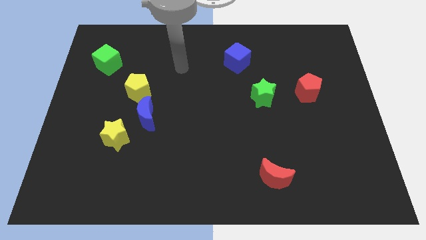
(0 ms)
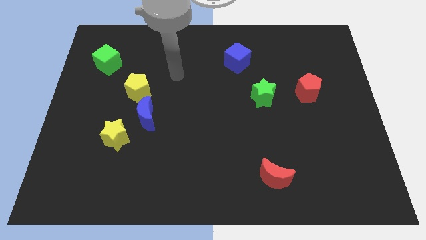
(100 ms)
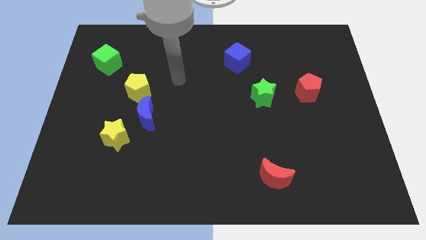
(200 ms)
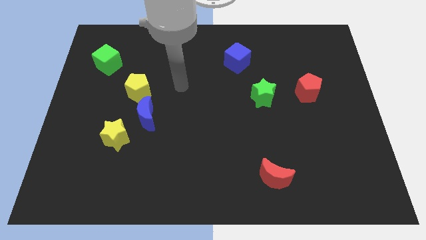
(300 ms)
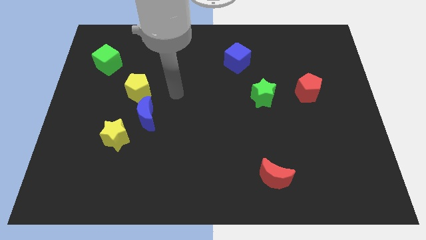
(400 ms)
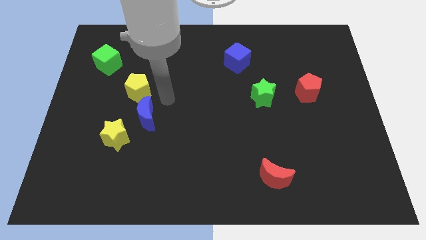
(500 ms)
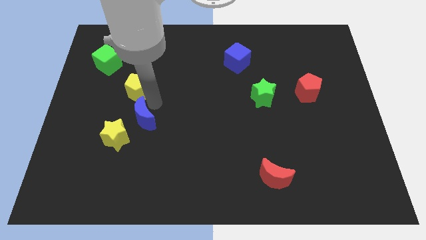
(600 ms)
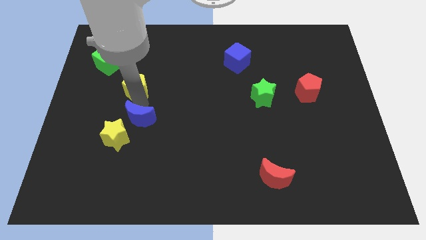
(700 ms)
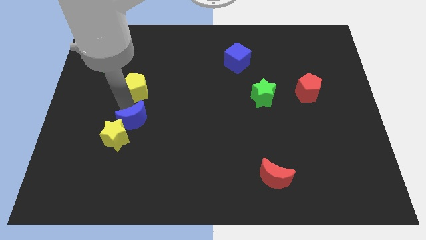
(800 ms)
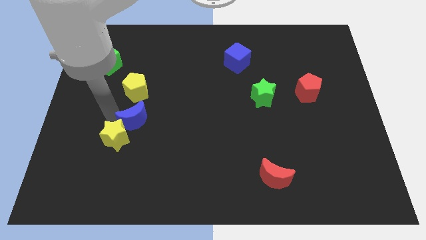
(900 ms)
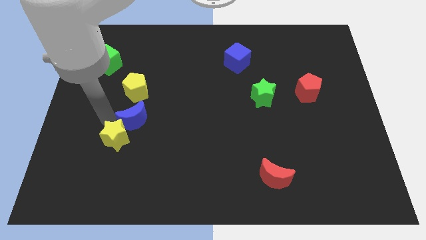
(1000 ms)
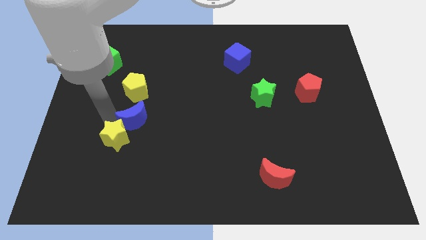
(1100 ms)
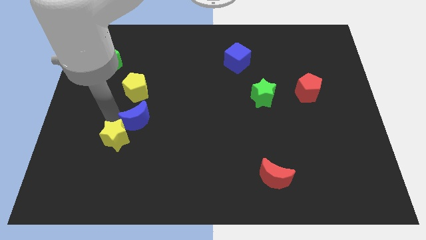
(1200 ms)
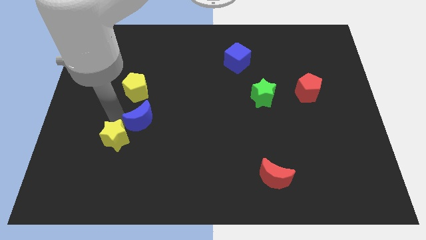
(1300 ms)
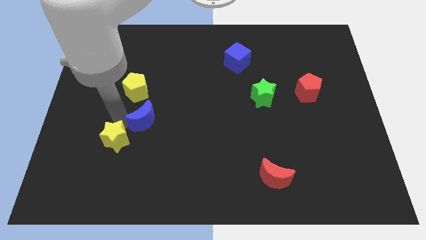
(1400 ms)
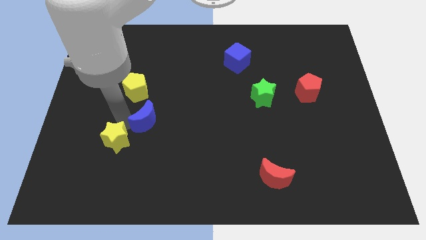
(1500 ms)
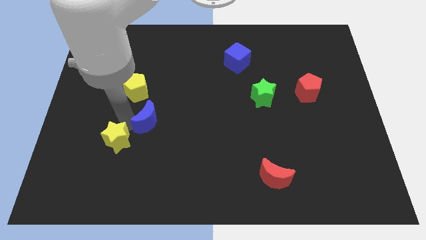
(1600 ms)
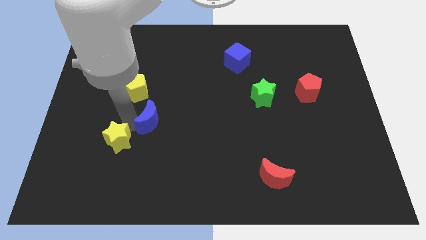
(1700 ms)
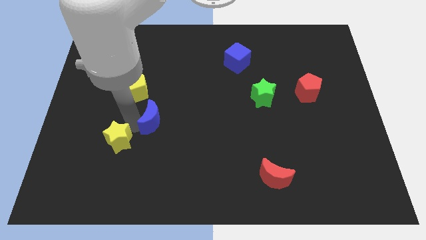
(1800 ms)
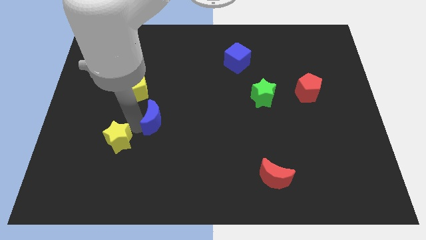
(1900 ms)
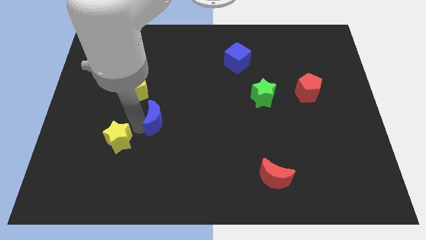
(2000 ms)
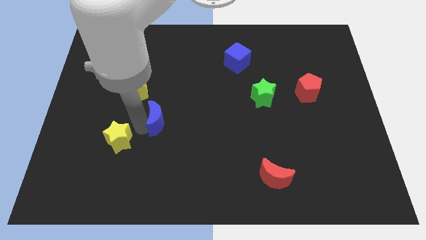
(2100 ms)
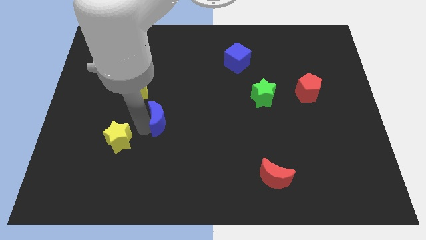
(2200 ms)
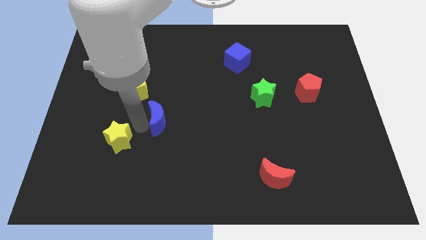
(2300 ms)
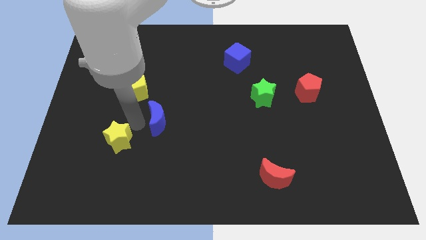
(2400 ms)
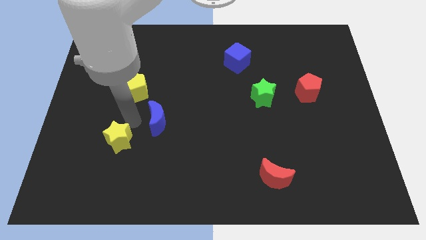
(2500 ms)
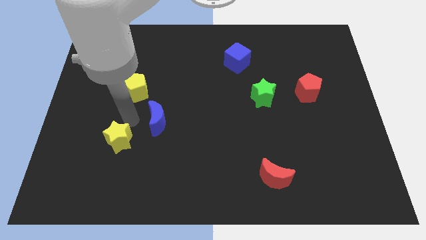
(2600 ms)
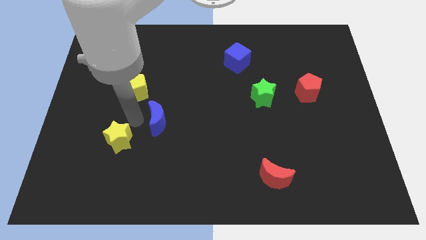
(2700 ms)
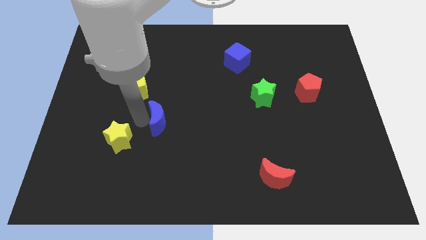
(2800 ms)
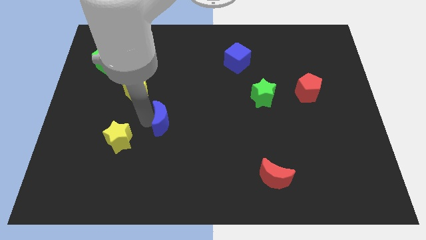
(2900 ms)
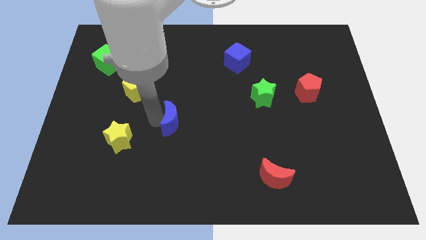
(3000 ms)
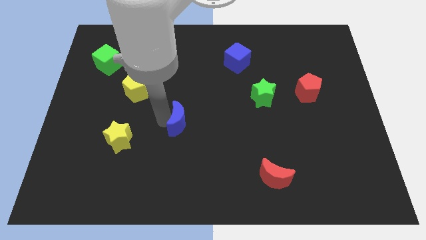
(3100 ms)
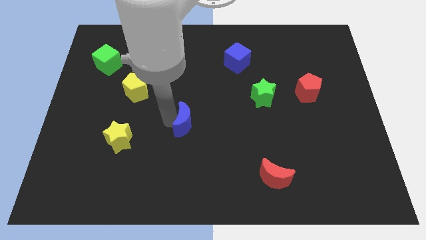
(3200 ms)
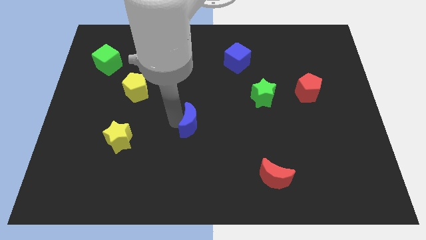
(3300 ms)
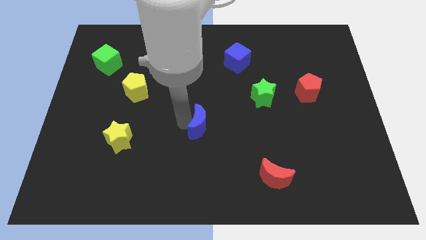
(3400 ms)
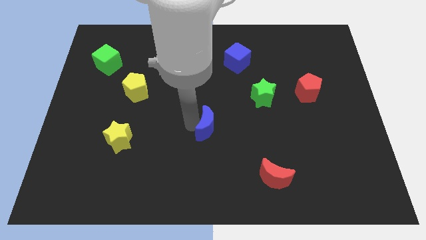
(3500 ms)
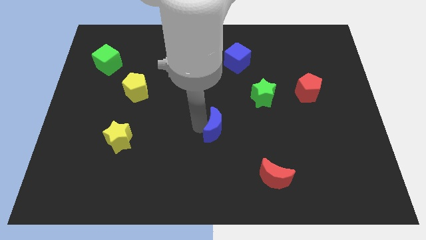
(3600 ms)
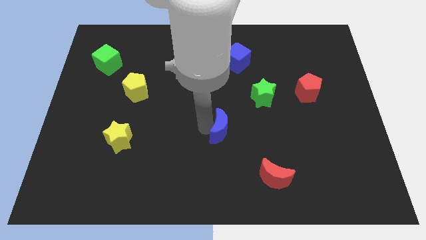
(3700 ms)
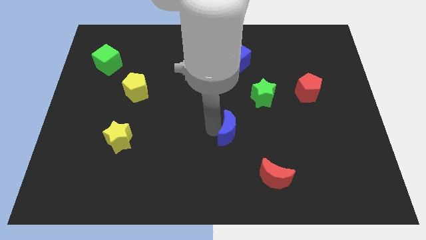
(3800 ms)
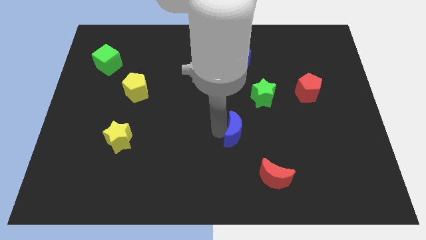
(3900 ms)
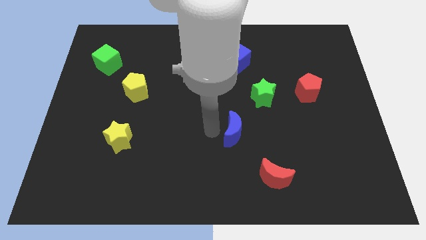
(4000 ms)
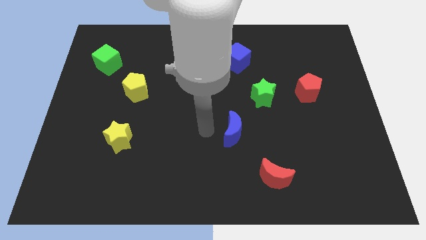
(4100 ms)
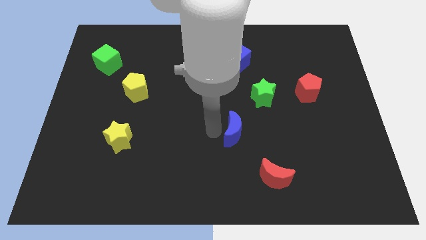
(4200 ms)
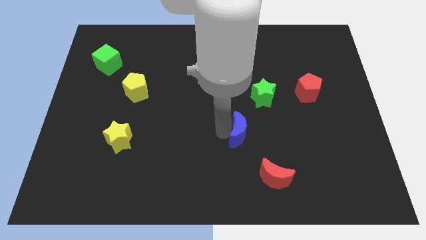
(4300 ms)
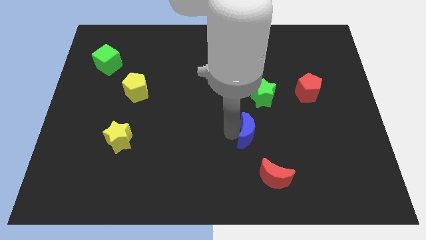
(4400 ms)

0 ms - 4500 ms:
put the blue moon above the red moon

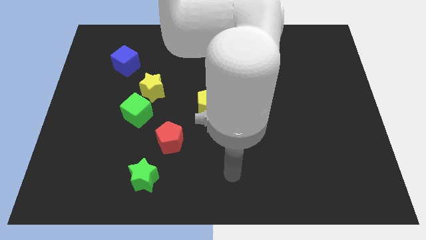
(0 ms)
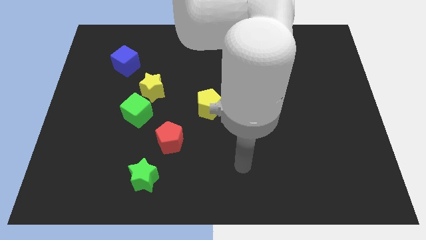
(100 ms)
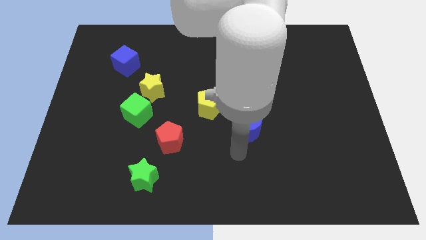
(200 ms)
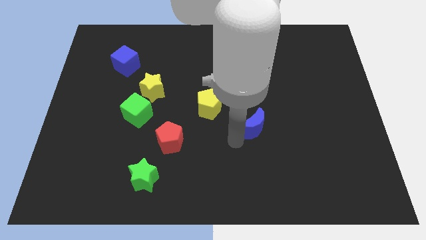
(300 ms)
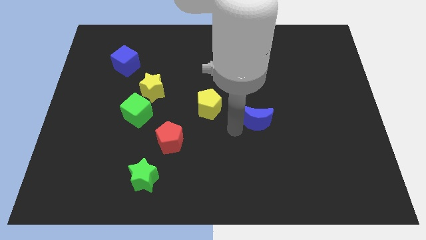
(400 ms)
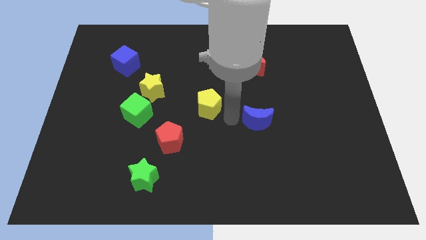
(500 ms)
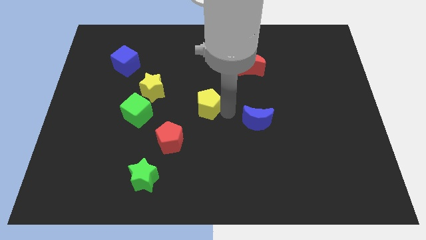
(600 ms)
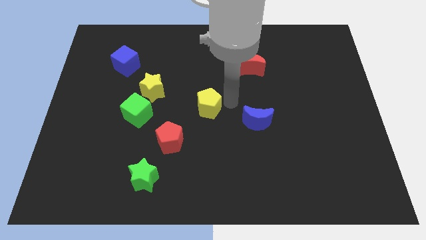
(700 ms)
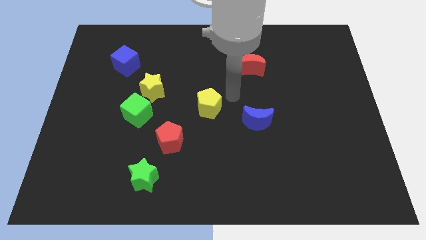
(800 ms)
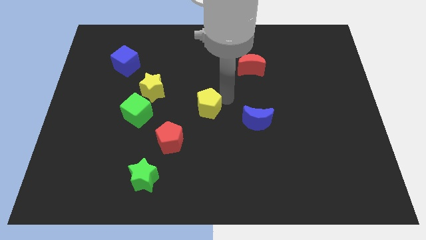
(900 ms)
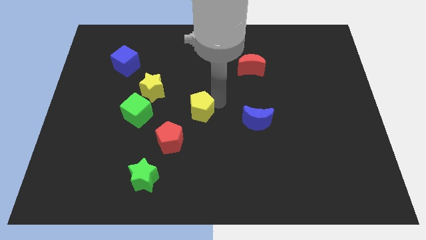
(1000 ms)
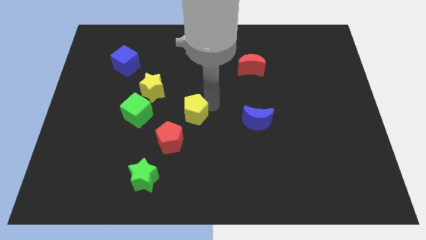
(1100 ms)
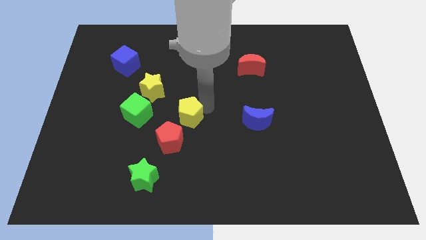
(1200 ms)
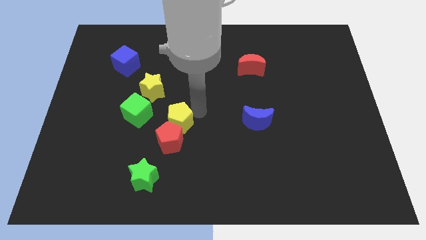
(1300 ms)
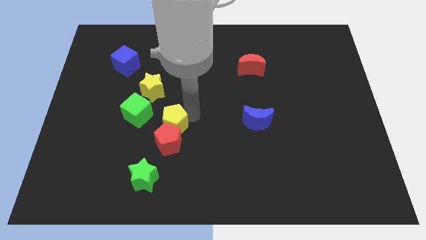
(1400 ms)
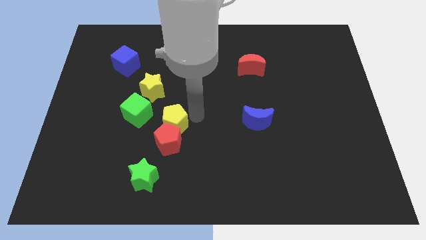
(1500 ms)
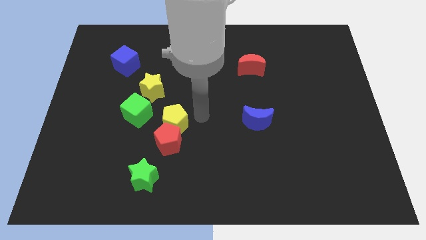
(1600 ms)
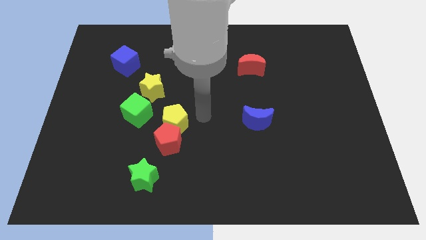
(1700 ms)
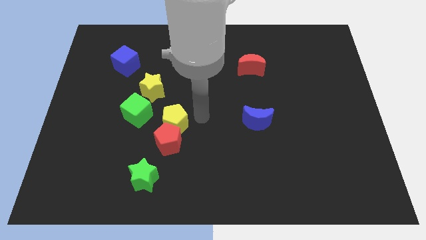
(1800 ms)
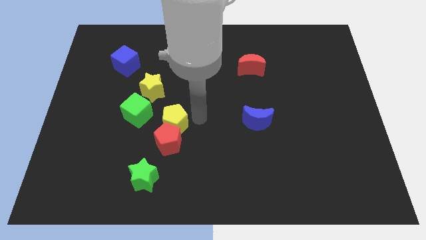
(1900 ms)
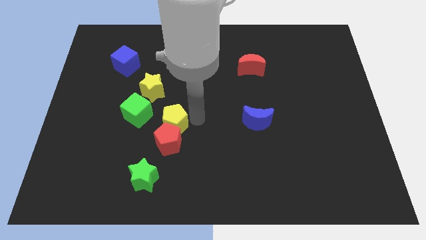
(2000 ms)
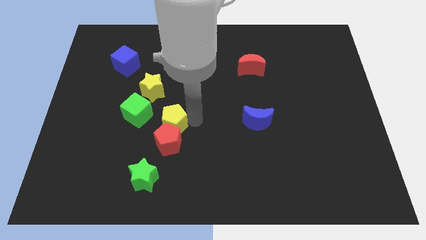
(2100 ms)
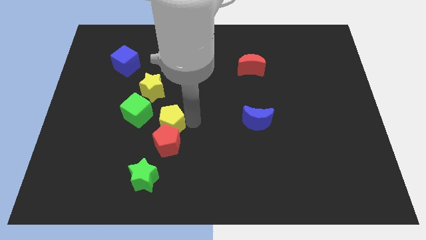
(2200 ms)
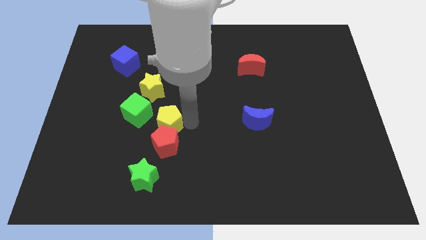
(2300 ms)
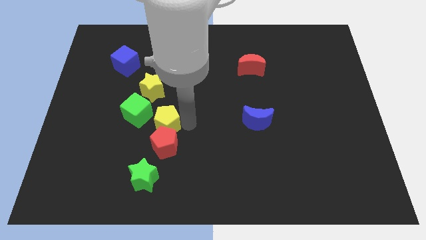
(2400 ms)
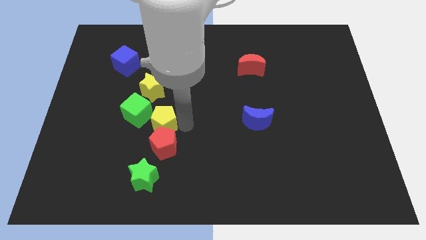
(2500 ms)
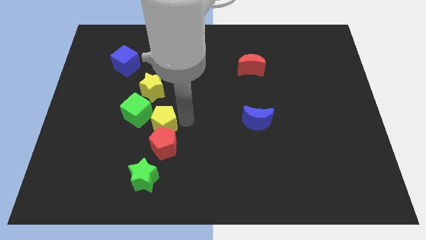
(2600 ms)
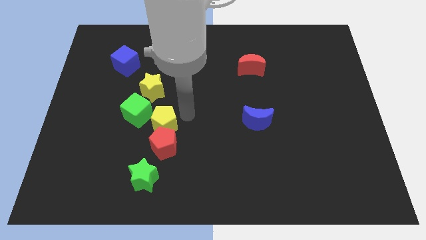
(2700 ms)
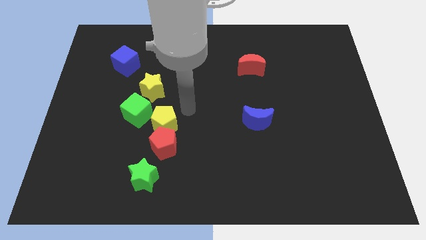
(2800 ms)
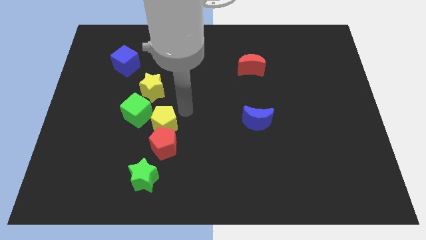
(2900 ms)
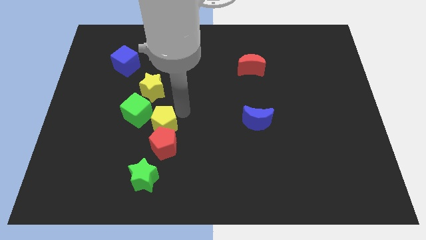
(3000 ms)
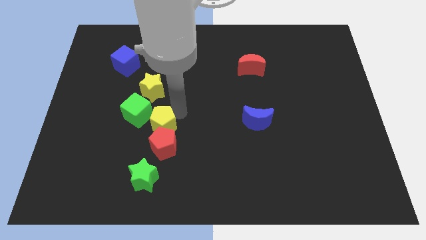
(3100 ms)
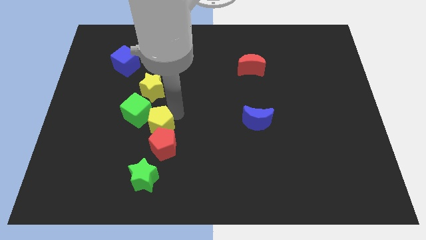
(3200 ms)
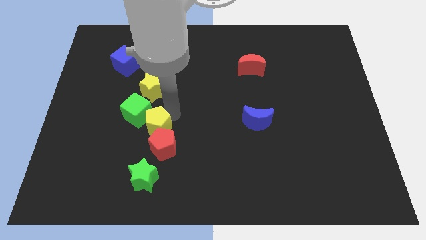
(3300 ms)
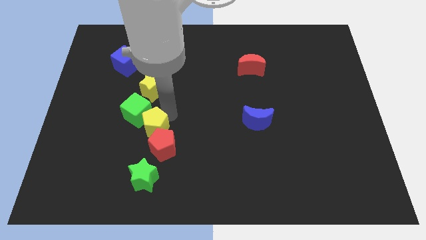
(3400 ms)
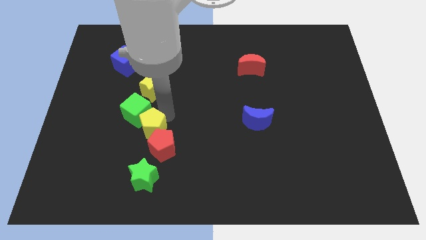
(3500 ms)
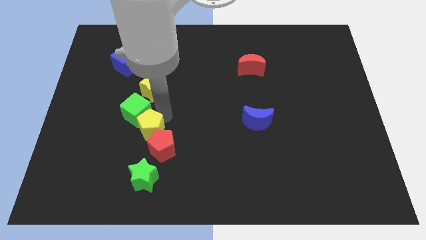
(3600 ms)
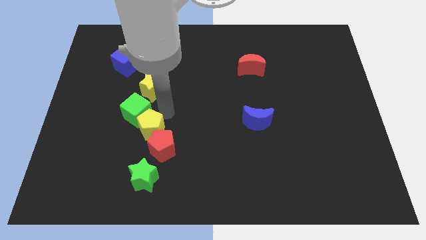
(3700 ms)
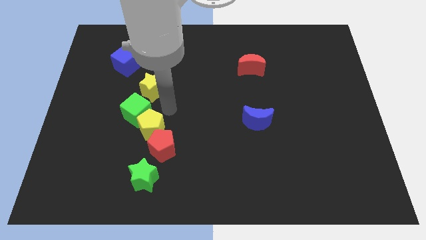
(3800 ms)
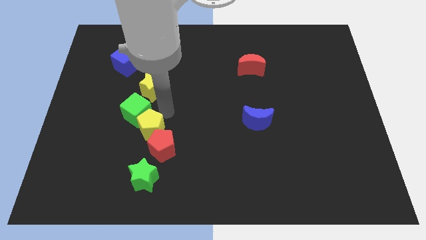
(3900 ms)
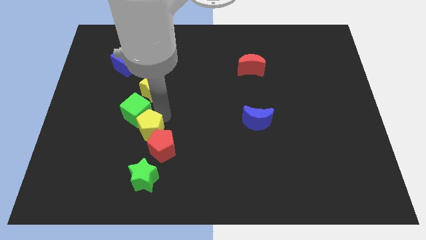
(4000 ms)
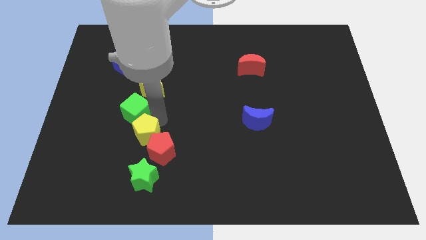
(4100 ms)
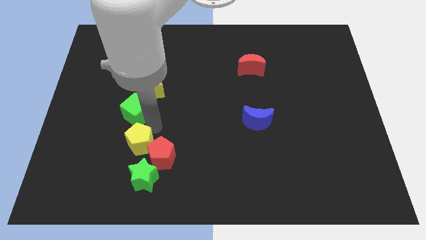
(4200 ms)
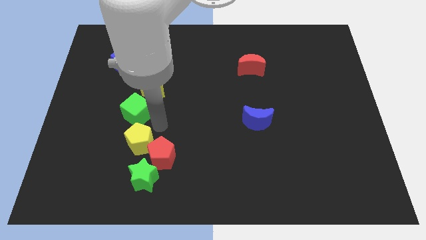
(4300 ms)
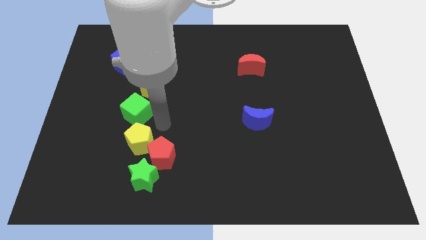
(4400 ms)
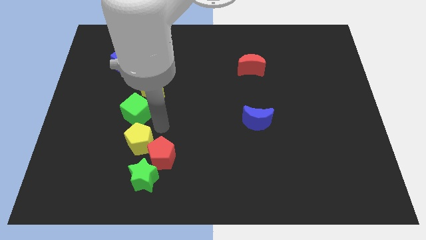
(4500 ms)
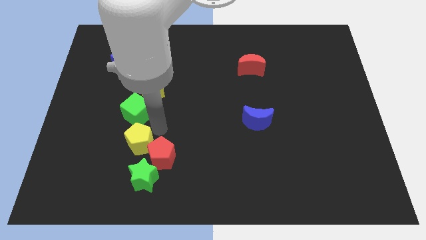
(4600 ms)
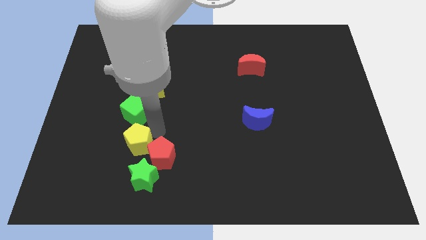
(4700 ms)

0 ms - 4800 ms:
put the yellow pentagon diagonally up and to the left of the green star
